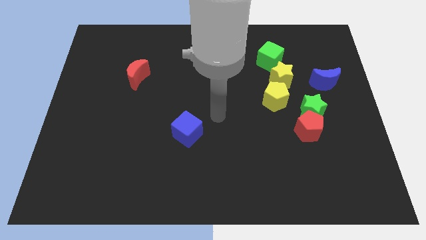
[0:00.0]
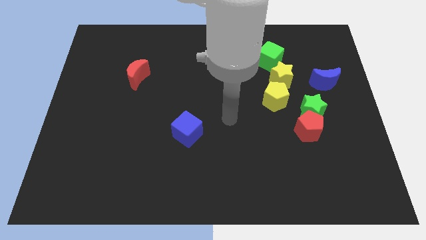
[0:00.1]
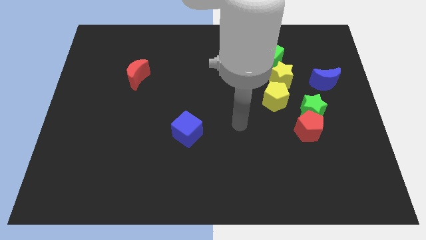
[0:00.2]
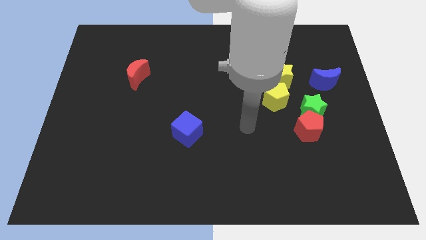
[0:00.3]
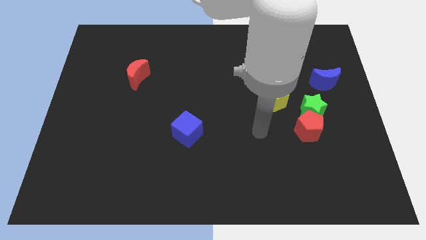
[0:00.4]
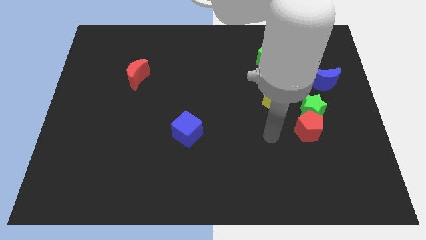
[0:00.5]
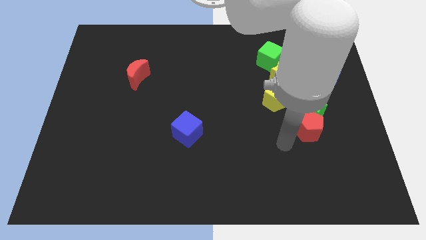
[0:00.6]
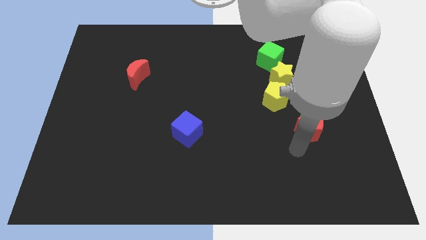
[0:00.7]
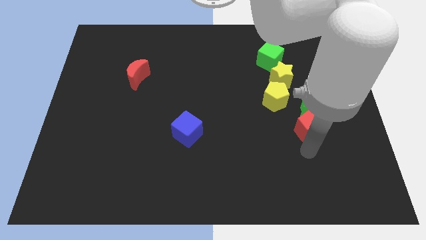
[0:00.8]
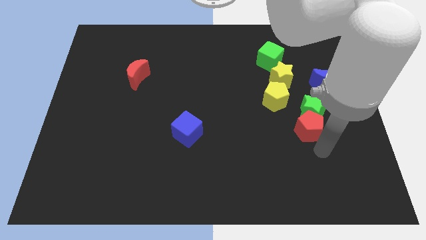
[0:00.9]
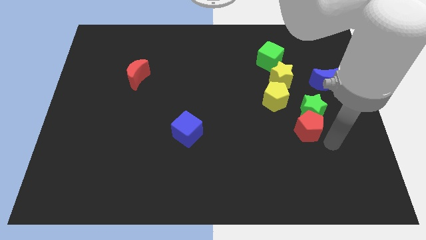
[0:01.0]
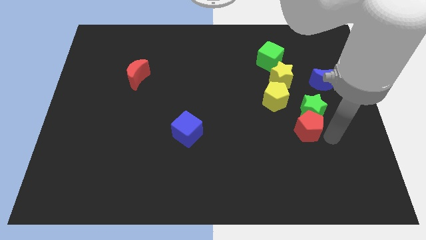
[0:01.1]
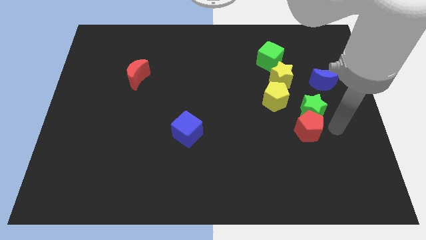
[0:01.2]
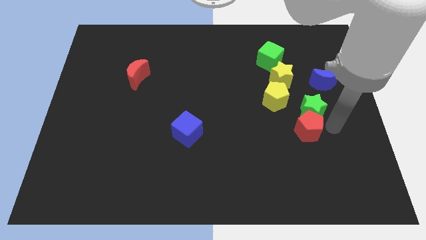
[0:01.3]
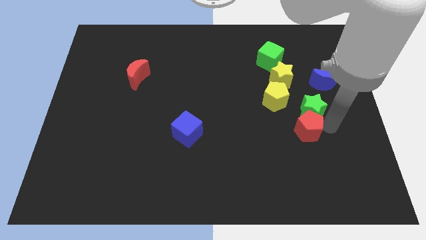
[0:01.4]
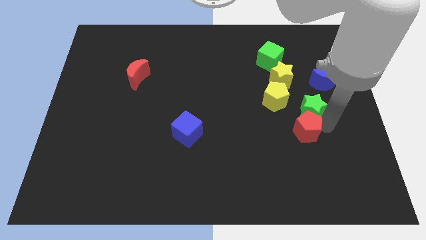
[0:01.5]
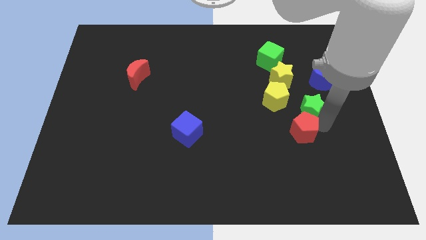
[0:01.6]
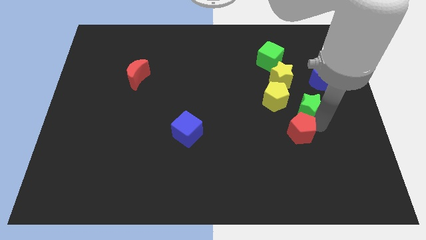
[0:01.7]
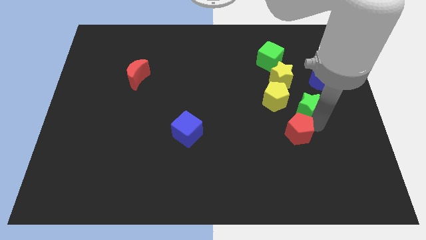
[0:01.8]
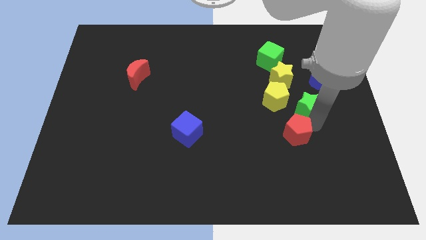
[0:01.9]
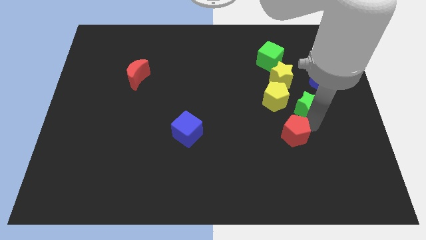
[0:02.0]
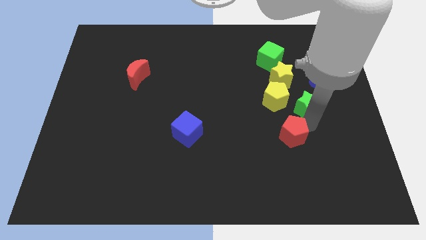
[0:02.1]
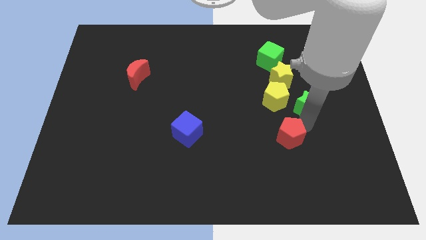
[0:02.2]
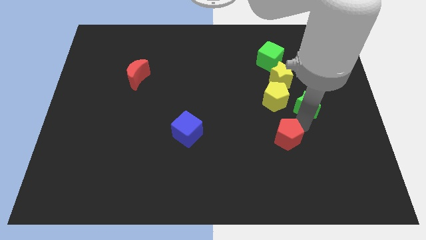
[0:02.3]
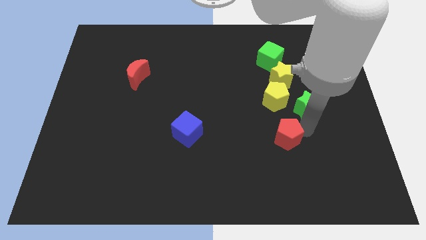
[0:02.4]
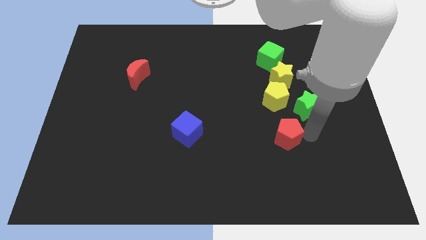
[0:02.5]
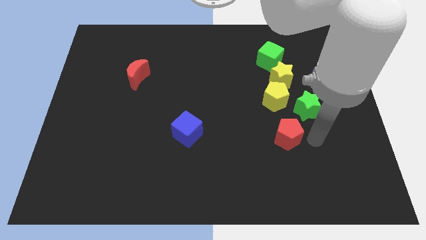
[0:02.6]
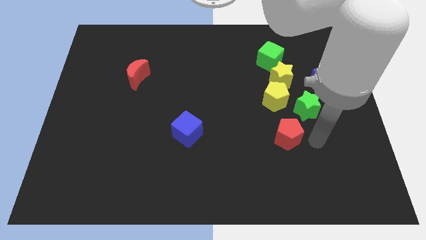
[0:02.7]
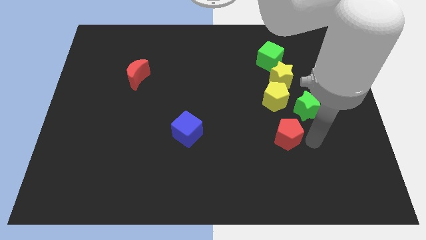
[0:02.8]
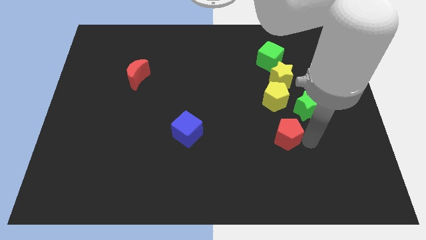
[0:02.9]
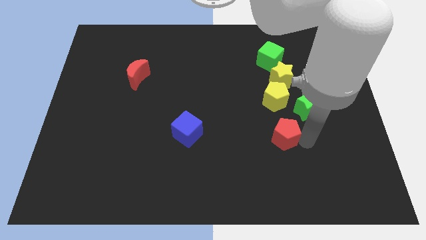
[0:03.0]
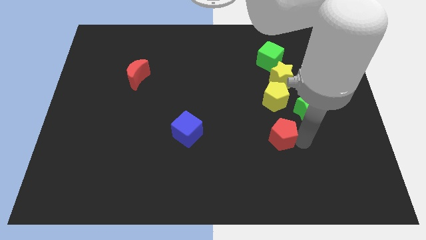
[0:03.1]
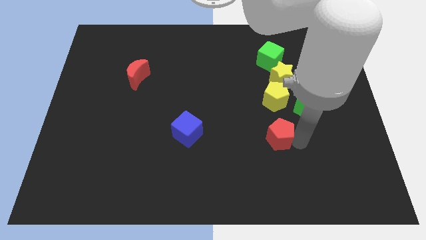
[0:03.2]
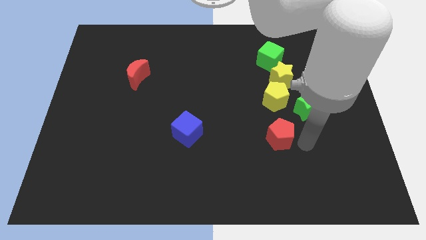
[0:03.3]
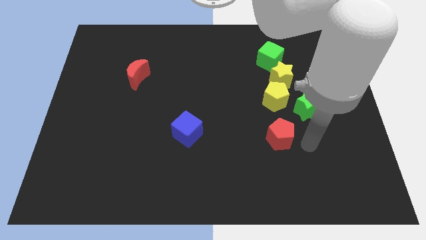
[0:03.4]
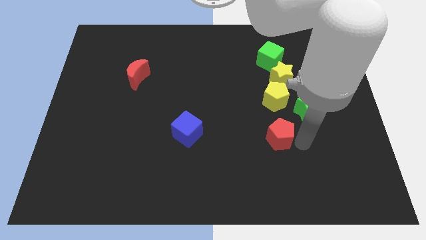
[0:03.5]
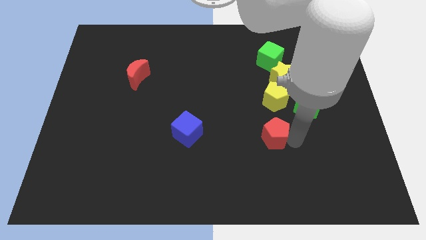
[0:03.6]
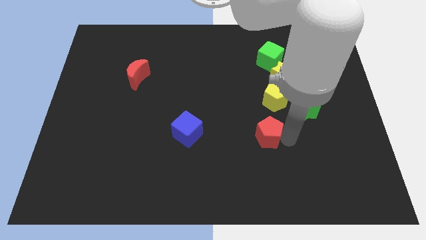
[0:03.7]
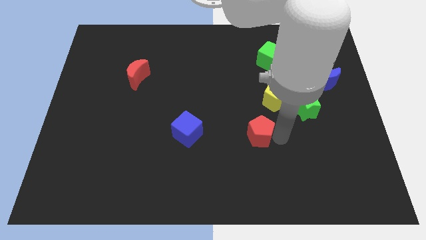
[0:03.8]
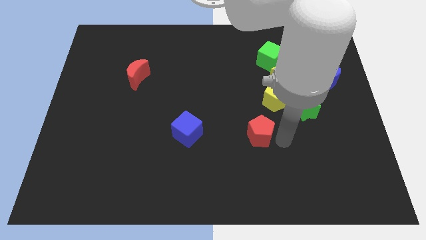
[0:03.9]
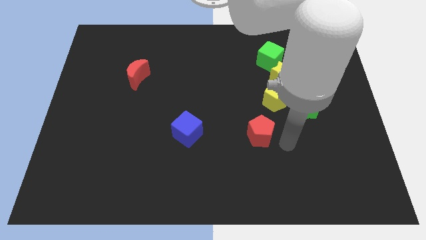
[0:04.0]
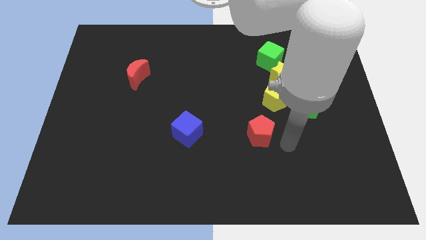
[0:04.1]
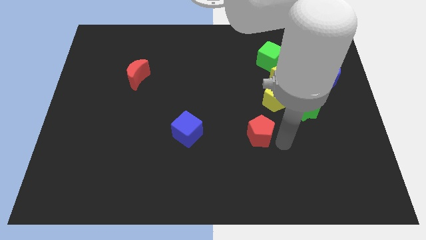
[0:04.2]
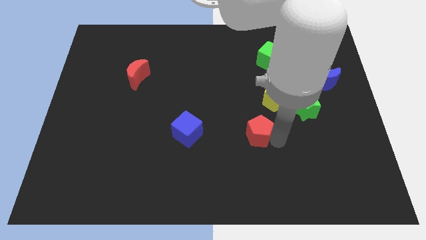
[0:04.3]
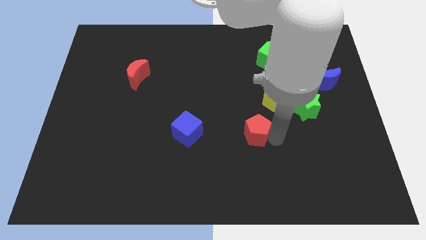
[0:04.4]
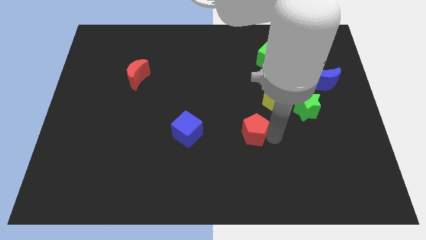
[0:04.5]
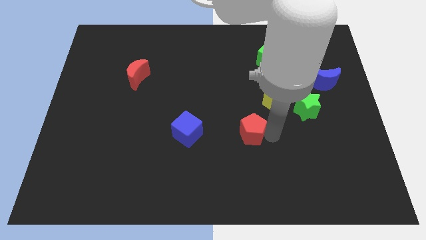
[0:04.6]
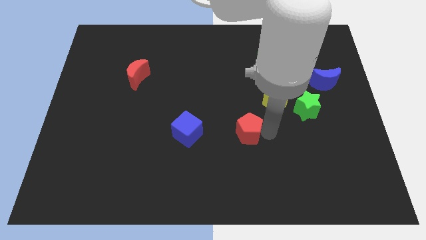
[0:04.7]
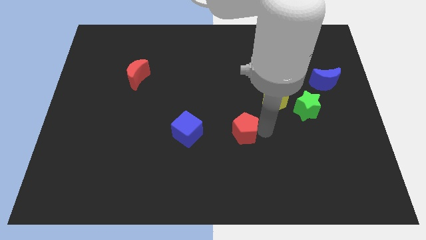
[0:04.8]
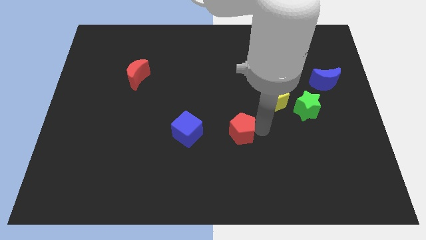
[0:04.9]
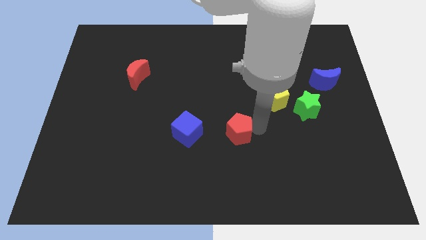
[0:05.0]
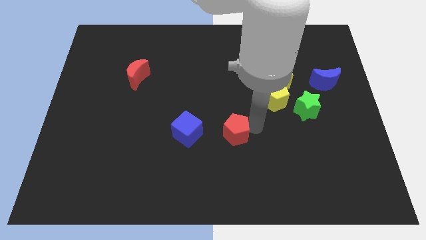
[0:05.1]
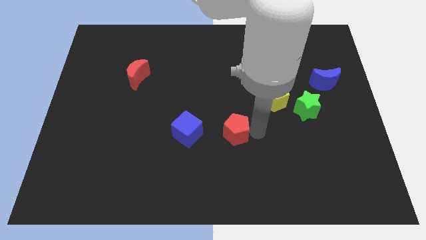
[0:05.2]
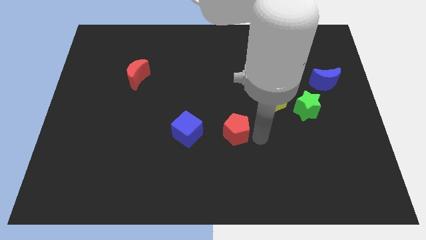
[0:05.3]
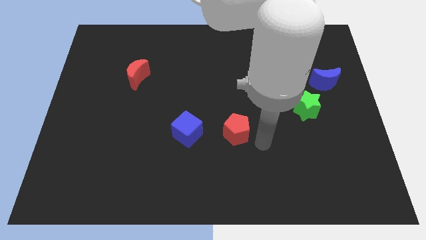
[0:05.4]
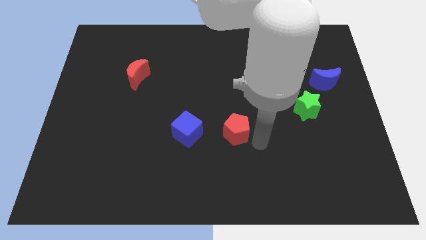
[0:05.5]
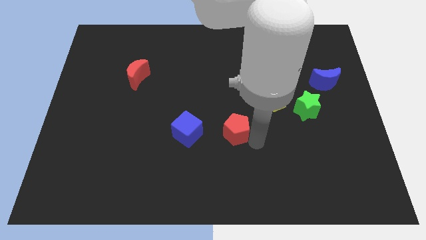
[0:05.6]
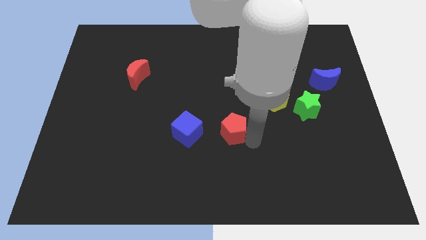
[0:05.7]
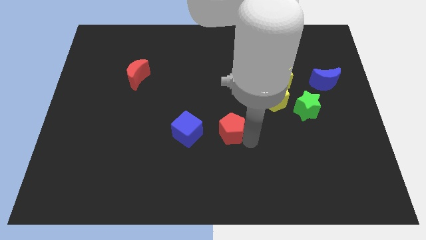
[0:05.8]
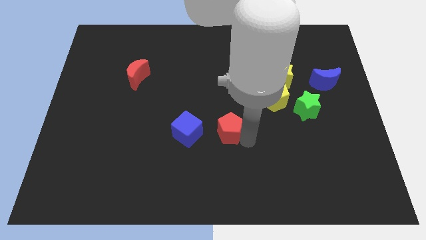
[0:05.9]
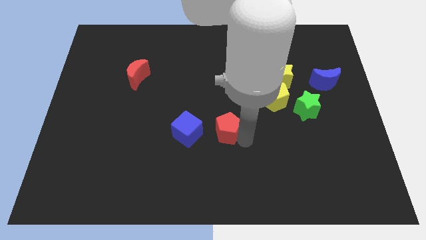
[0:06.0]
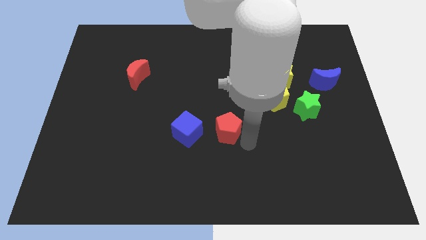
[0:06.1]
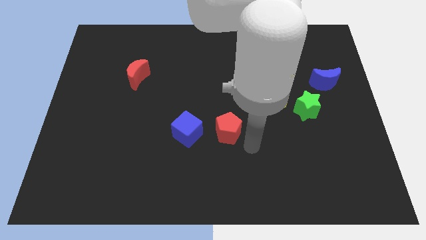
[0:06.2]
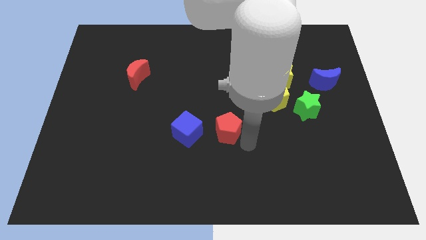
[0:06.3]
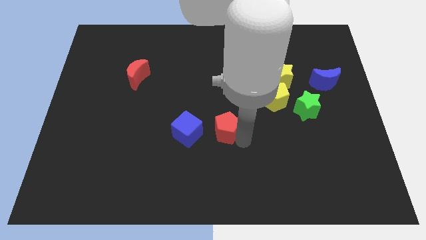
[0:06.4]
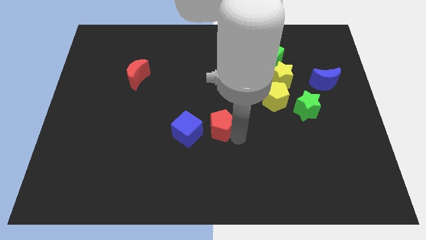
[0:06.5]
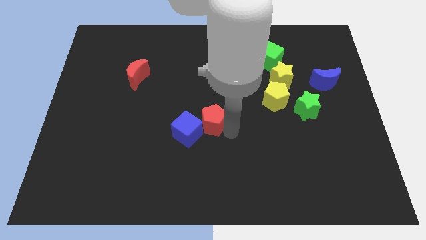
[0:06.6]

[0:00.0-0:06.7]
slide the red pentagon left

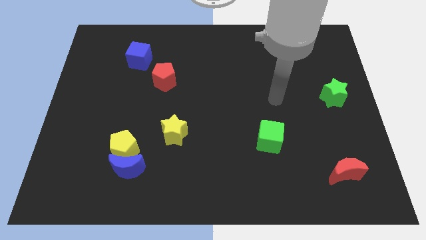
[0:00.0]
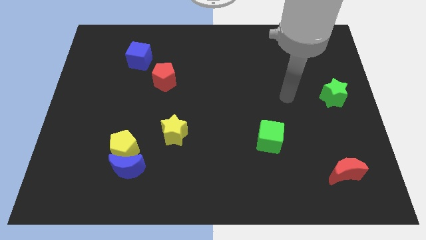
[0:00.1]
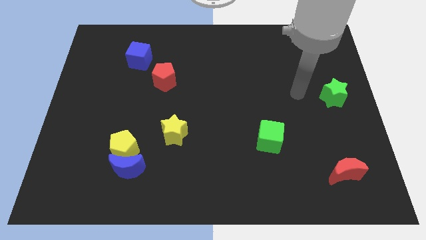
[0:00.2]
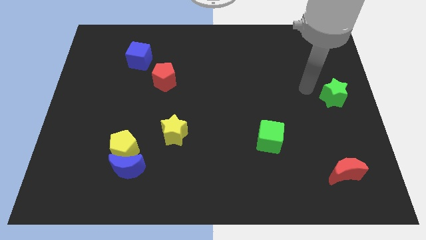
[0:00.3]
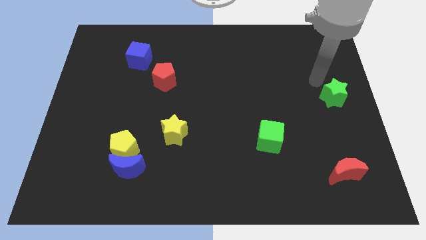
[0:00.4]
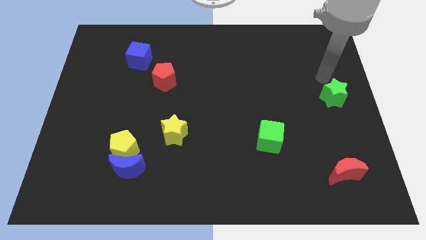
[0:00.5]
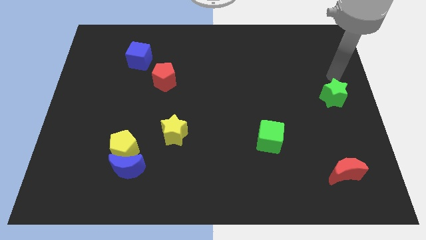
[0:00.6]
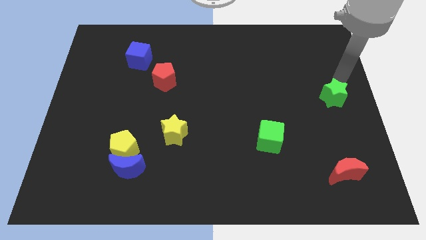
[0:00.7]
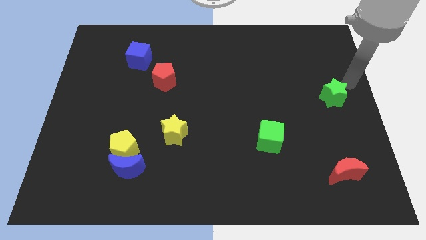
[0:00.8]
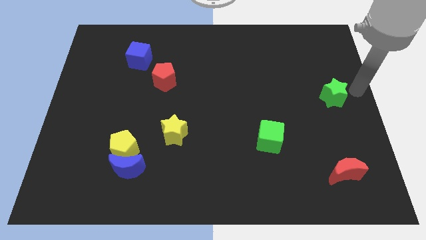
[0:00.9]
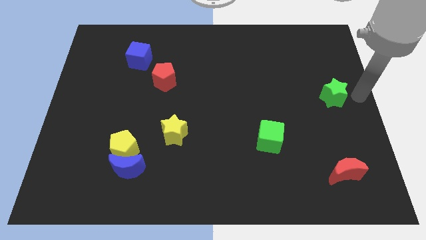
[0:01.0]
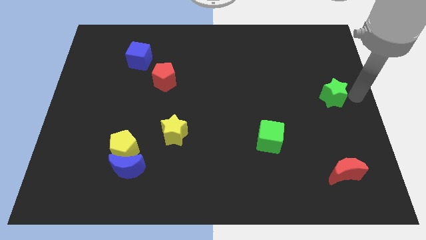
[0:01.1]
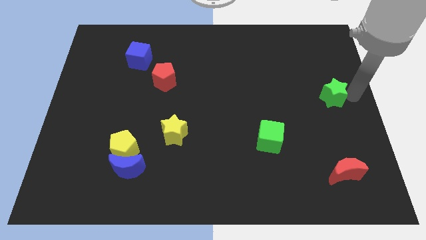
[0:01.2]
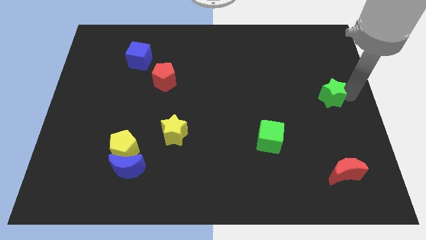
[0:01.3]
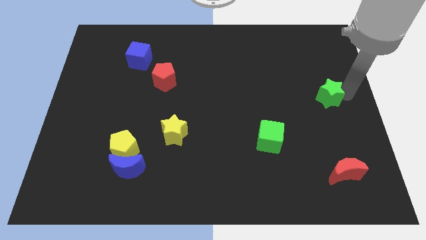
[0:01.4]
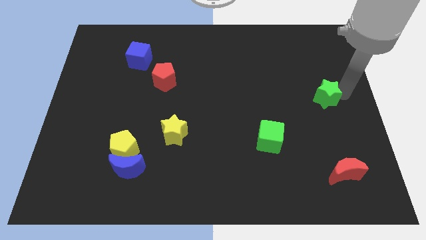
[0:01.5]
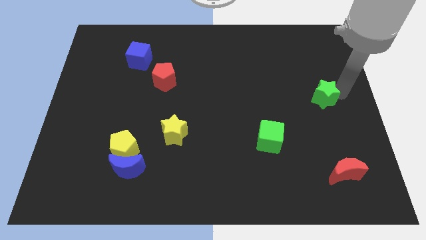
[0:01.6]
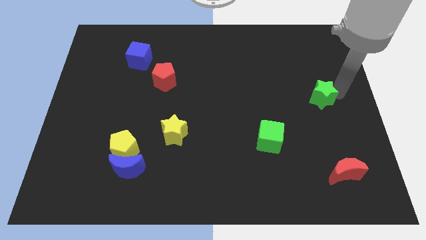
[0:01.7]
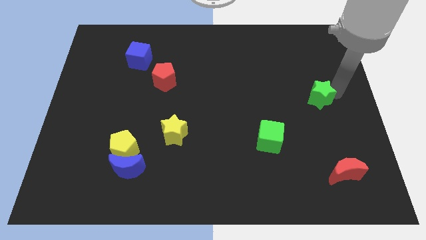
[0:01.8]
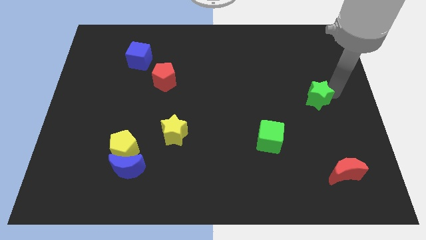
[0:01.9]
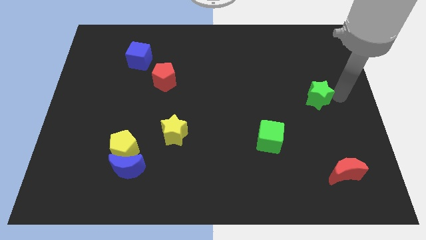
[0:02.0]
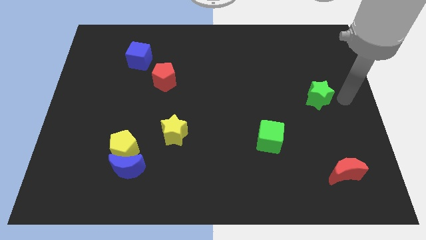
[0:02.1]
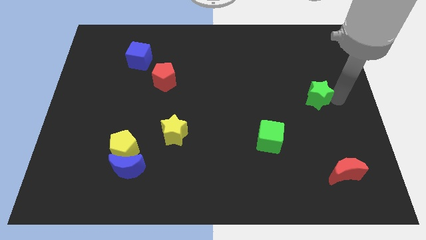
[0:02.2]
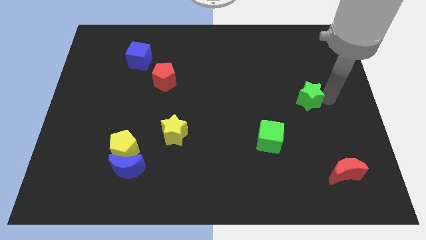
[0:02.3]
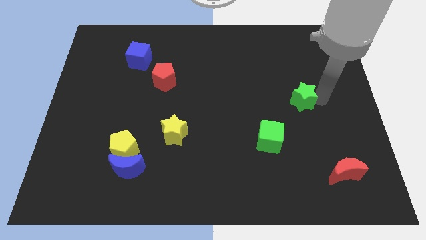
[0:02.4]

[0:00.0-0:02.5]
move the green star slightly to the left
